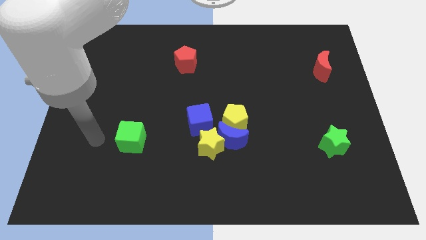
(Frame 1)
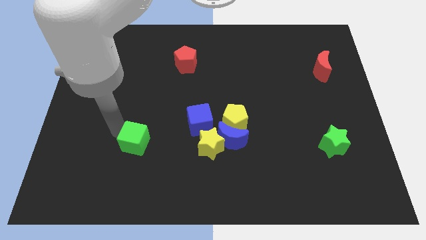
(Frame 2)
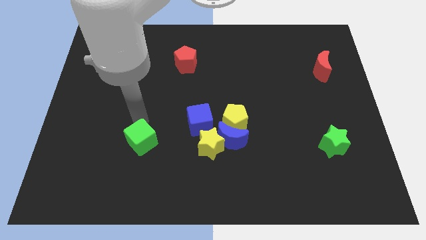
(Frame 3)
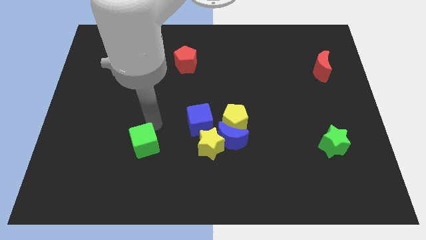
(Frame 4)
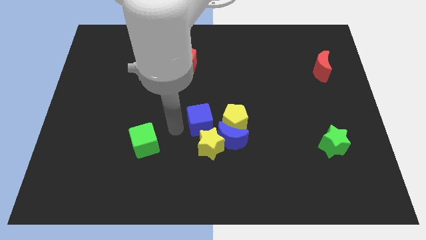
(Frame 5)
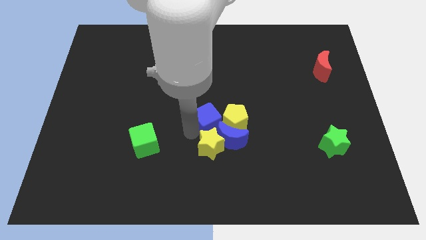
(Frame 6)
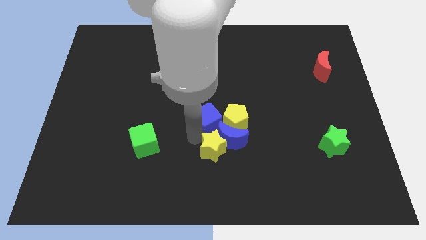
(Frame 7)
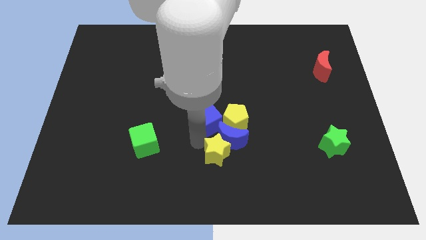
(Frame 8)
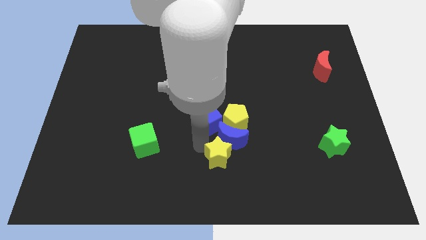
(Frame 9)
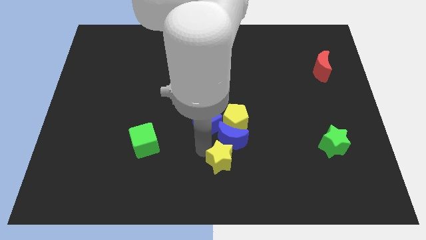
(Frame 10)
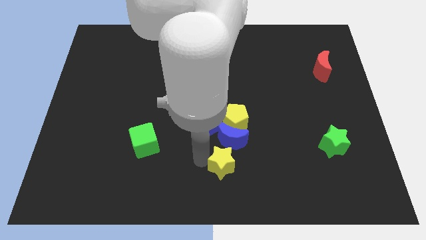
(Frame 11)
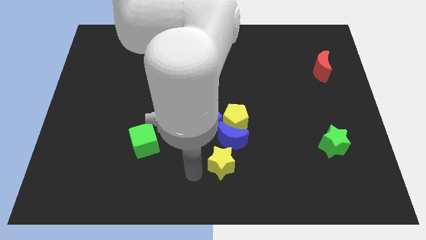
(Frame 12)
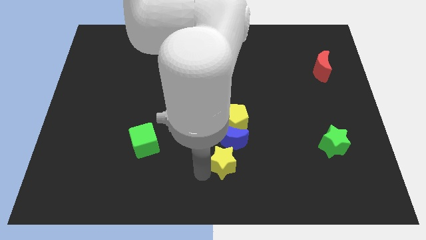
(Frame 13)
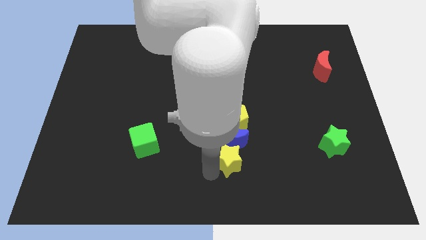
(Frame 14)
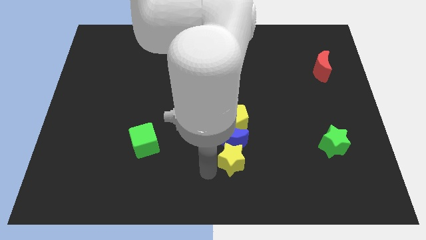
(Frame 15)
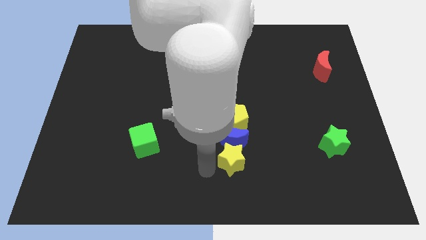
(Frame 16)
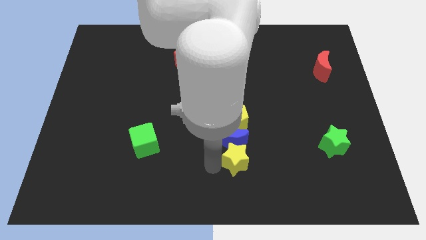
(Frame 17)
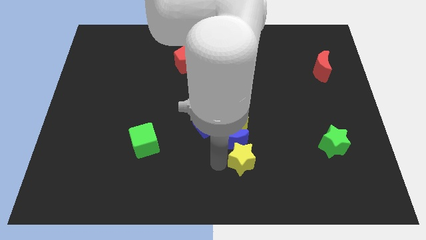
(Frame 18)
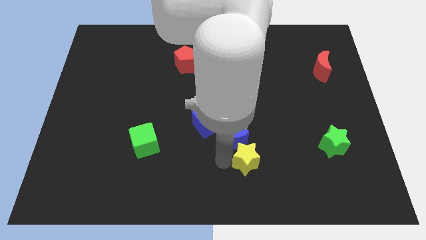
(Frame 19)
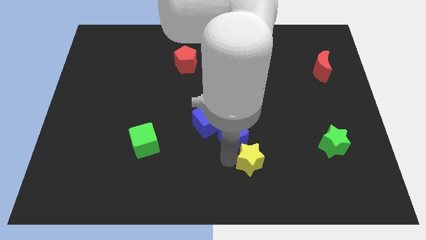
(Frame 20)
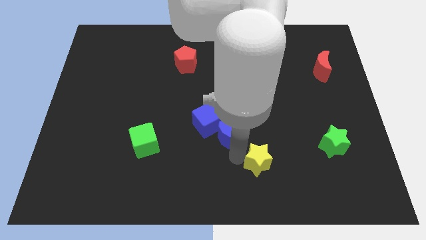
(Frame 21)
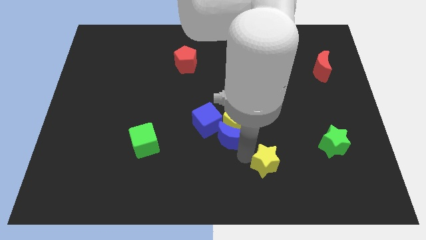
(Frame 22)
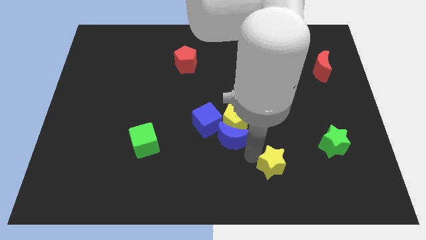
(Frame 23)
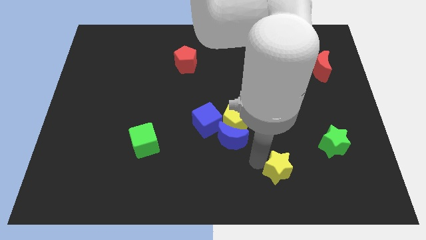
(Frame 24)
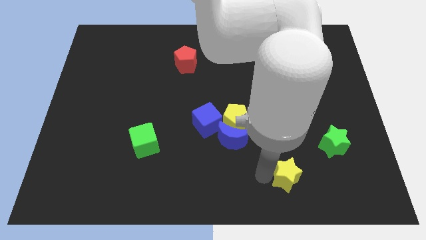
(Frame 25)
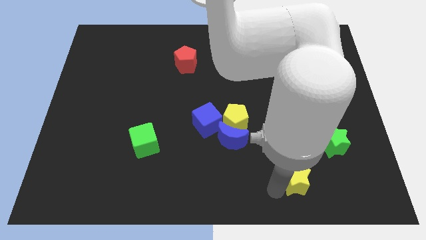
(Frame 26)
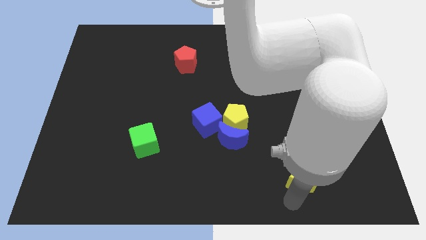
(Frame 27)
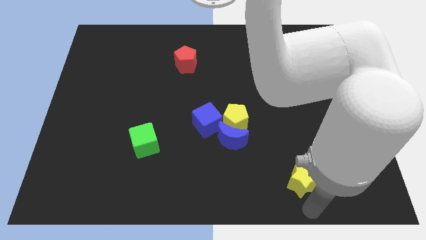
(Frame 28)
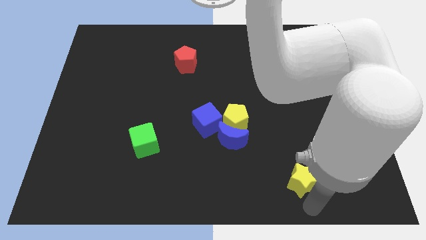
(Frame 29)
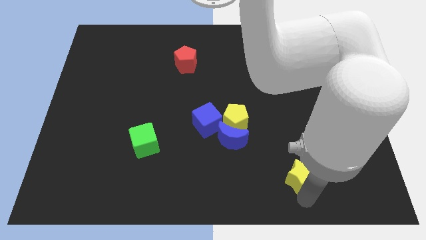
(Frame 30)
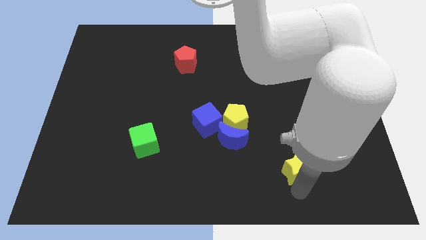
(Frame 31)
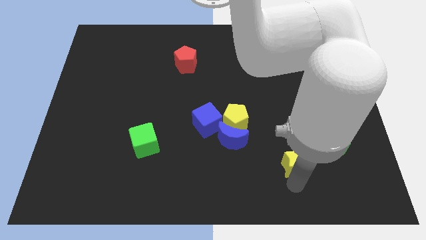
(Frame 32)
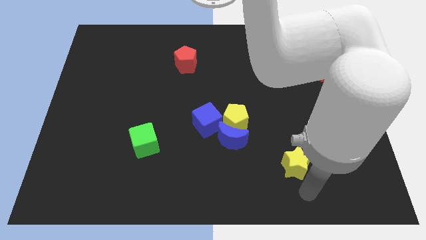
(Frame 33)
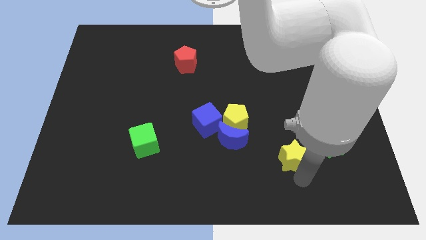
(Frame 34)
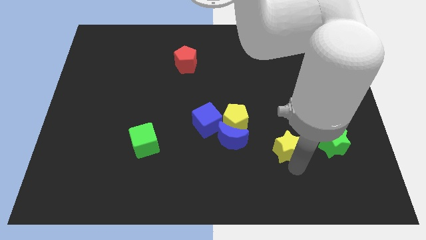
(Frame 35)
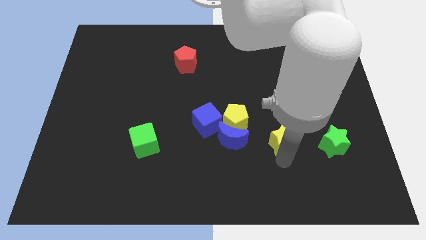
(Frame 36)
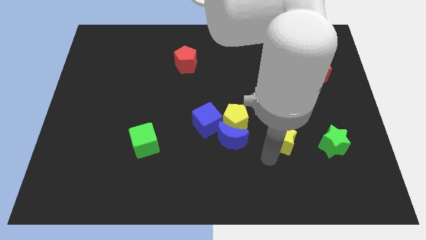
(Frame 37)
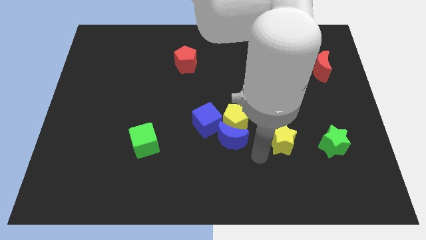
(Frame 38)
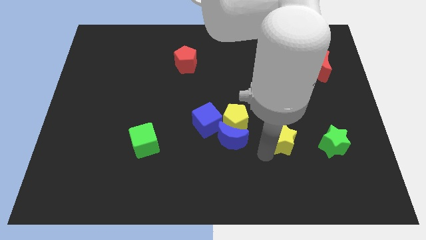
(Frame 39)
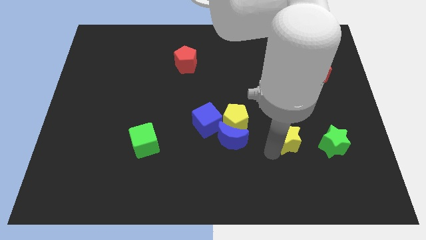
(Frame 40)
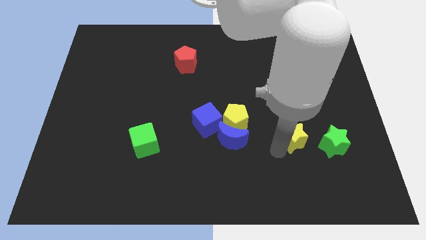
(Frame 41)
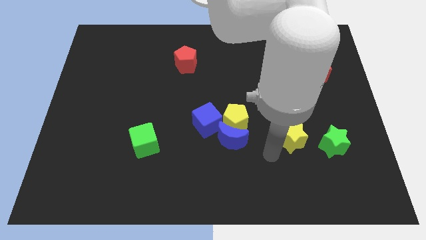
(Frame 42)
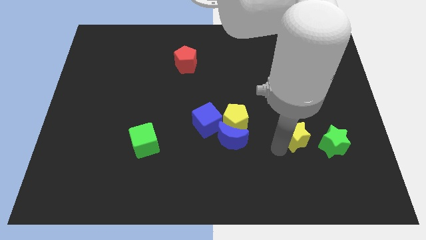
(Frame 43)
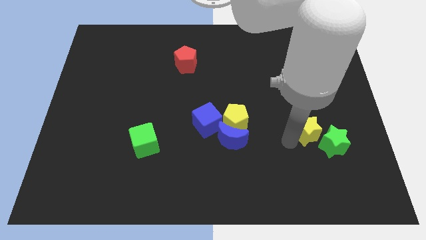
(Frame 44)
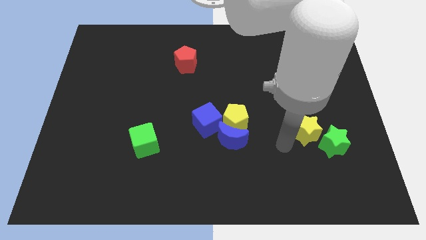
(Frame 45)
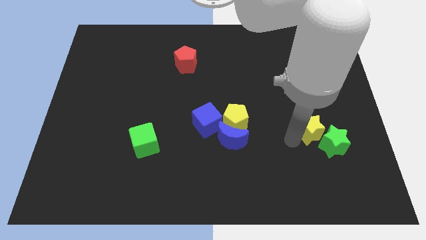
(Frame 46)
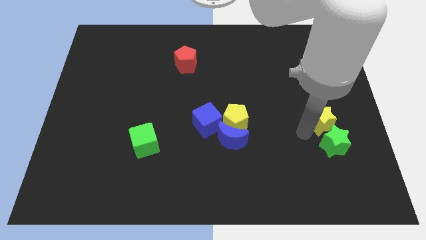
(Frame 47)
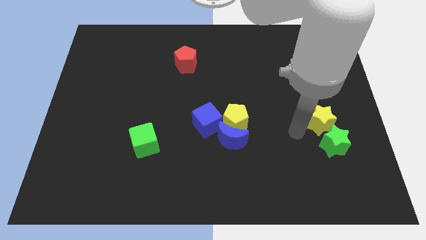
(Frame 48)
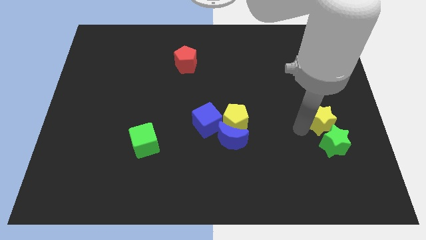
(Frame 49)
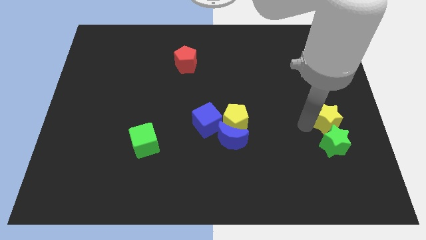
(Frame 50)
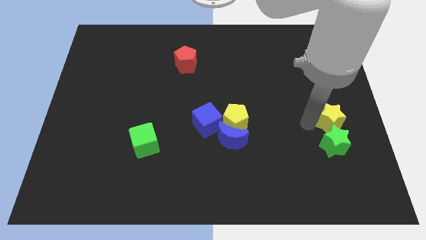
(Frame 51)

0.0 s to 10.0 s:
push the yellow star to the center right

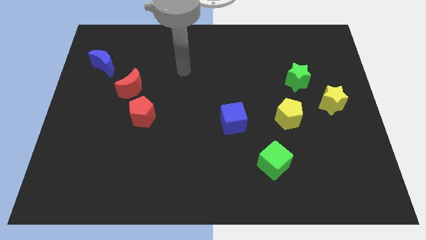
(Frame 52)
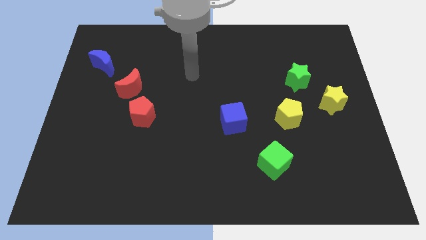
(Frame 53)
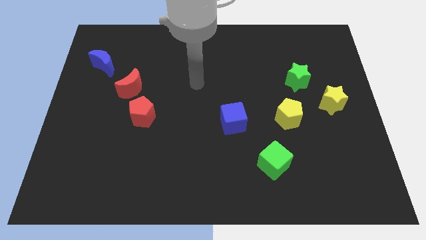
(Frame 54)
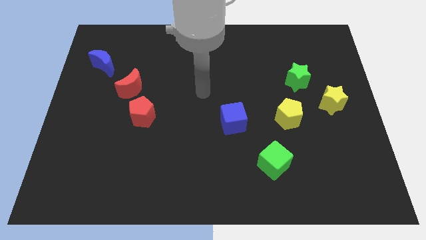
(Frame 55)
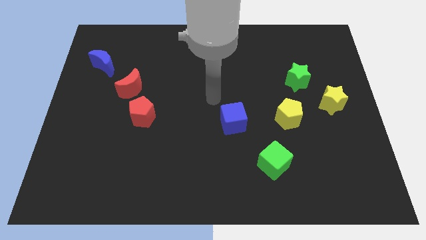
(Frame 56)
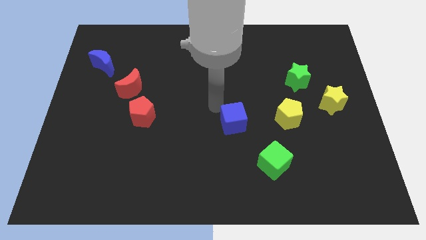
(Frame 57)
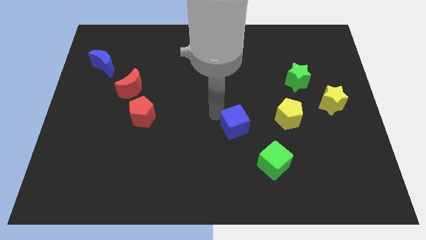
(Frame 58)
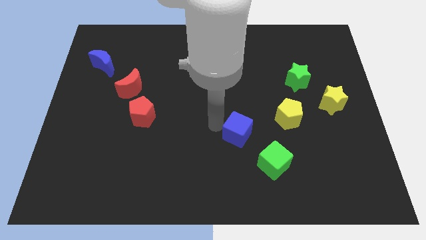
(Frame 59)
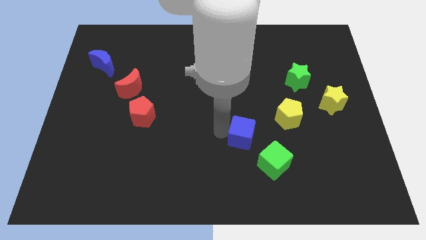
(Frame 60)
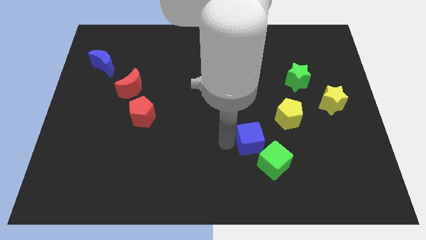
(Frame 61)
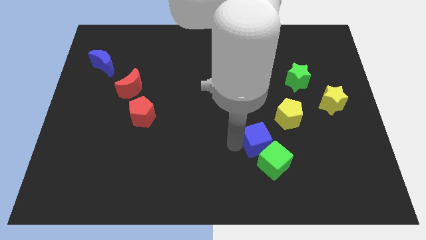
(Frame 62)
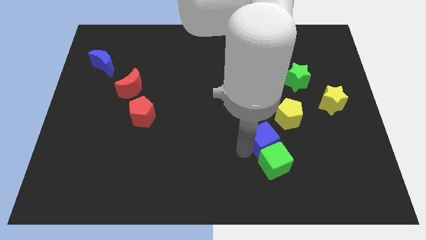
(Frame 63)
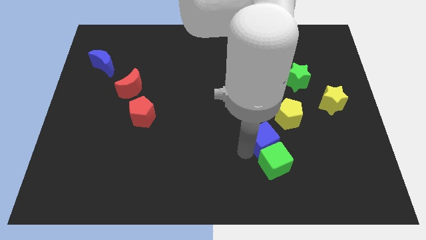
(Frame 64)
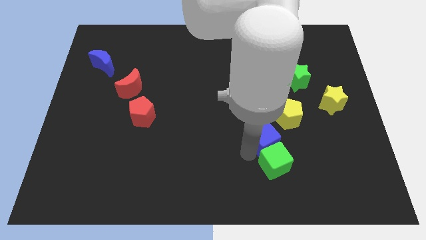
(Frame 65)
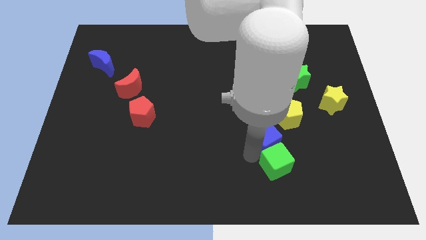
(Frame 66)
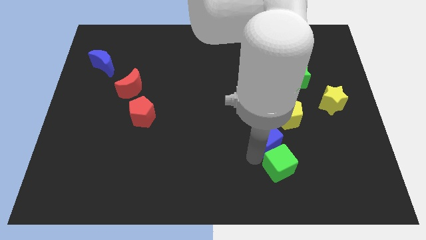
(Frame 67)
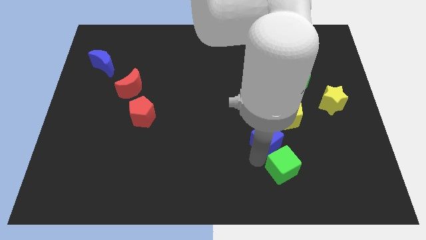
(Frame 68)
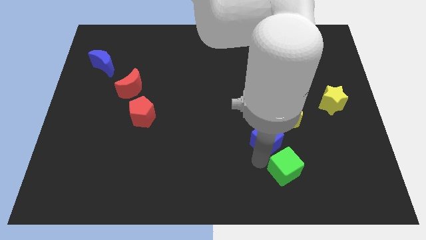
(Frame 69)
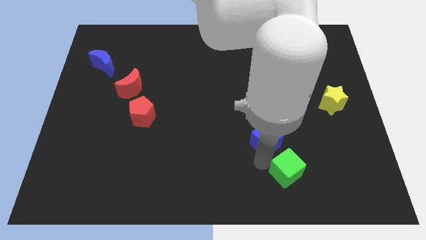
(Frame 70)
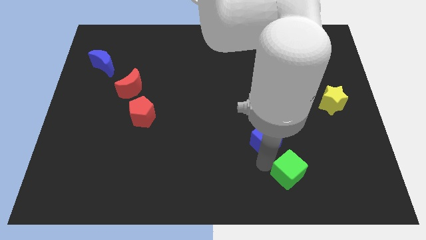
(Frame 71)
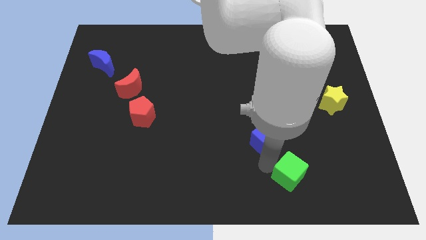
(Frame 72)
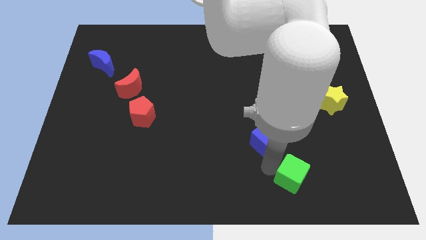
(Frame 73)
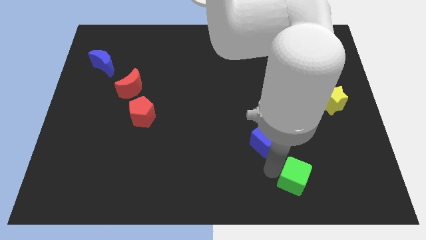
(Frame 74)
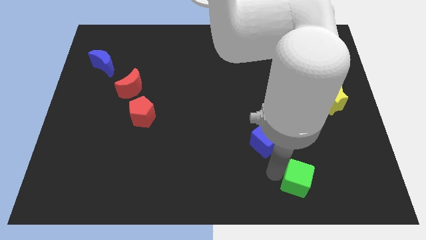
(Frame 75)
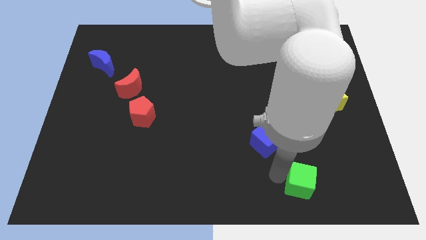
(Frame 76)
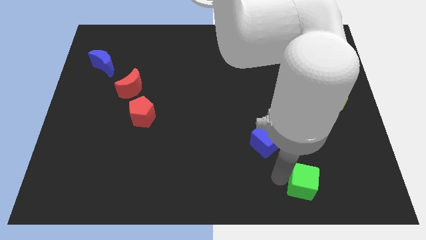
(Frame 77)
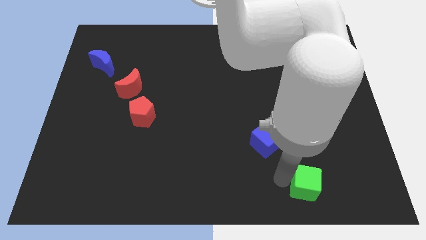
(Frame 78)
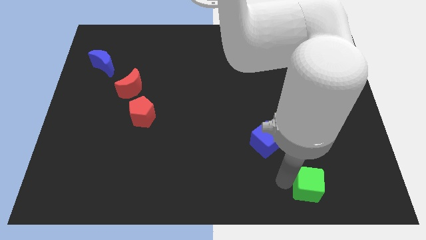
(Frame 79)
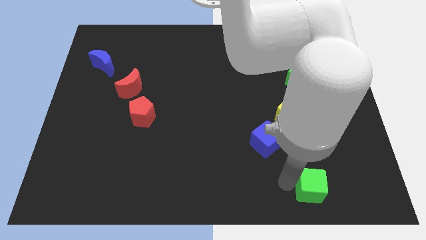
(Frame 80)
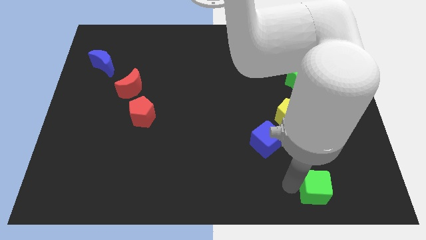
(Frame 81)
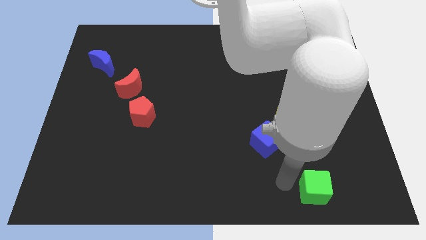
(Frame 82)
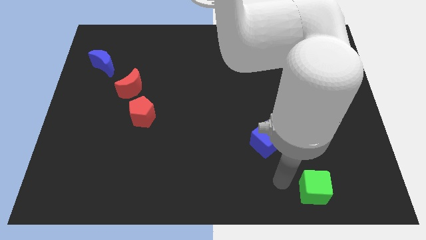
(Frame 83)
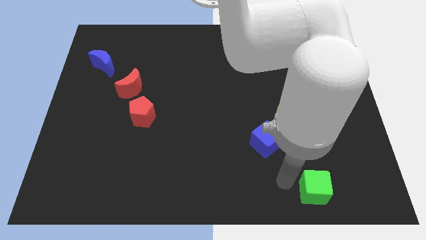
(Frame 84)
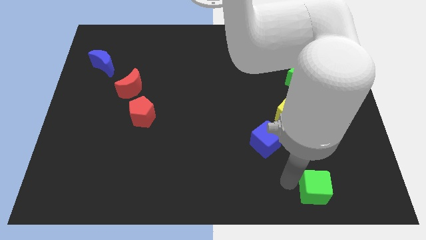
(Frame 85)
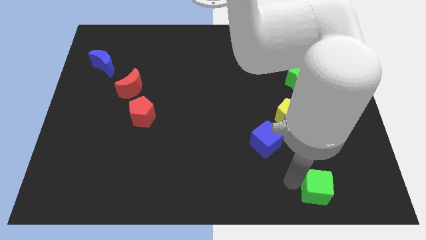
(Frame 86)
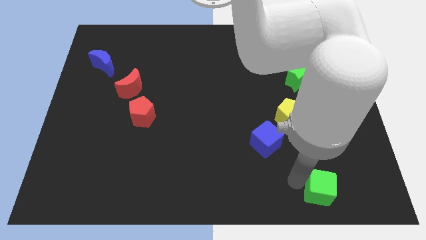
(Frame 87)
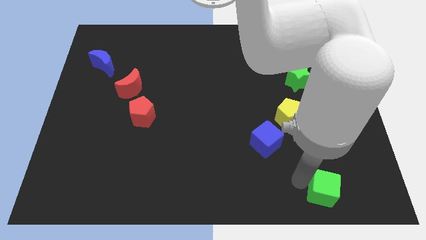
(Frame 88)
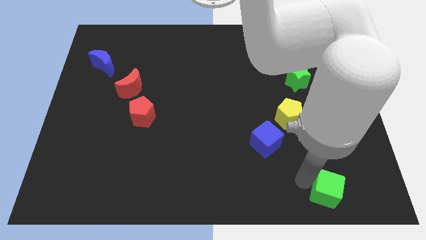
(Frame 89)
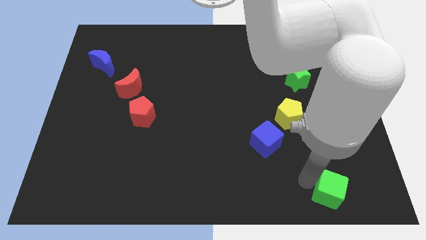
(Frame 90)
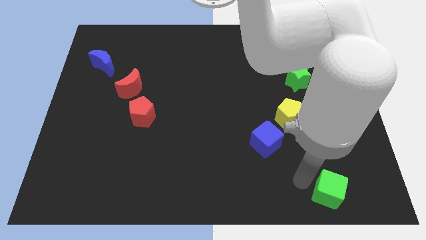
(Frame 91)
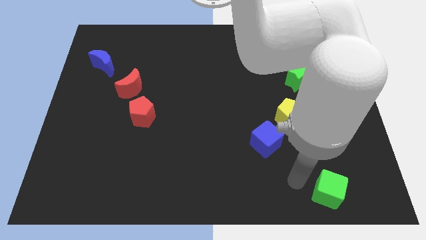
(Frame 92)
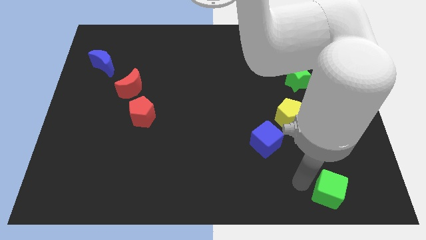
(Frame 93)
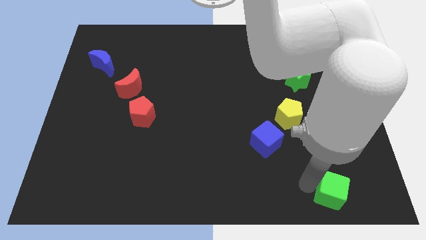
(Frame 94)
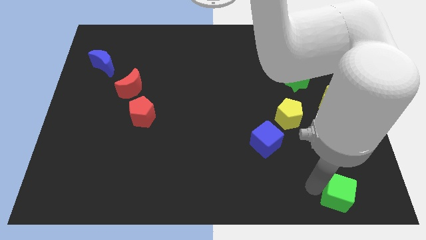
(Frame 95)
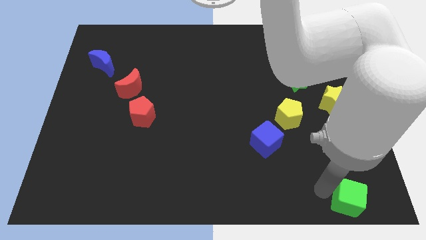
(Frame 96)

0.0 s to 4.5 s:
slide the green cube to the lower right corner
